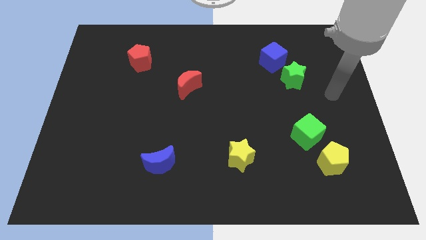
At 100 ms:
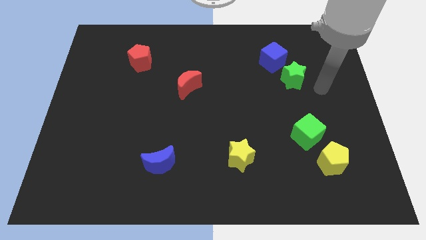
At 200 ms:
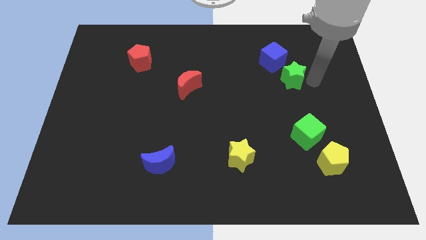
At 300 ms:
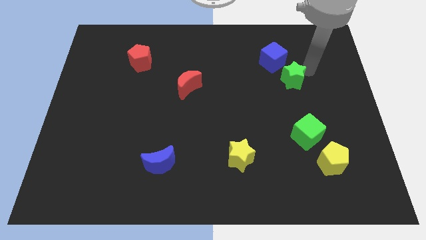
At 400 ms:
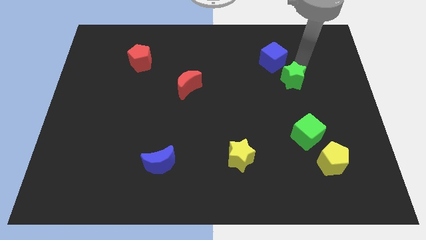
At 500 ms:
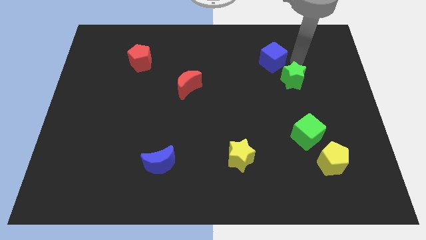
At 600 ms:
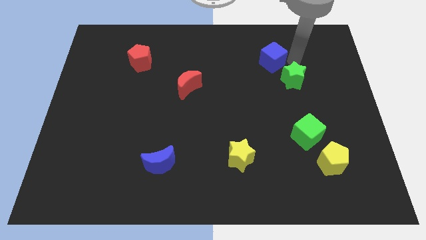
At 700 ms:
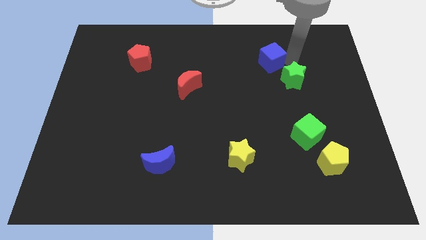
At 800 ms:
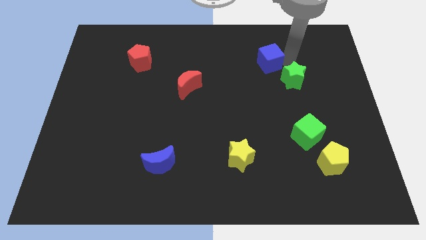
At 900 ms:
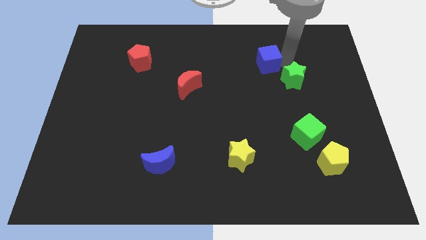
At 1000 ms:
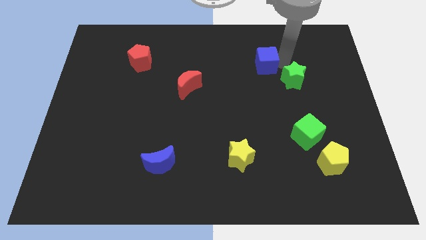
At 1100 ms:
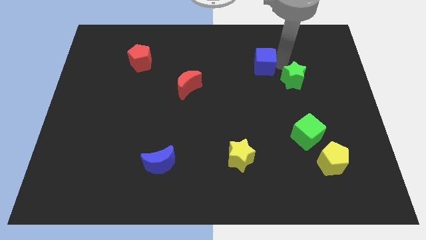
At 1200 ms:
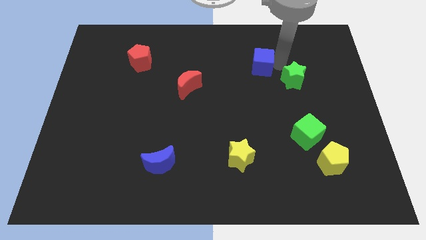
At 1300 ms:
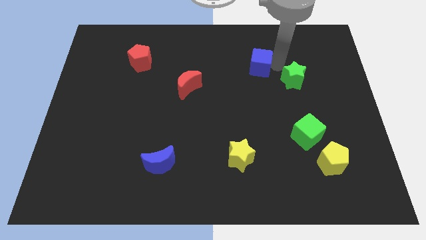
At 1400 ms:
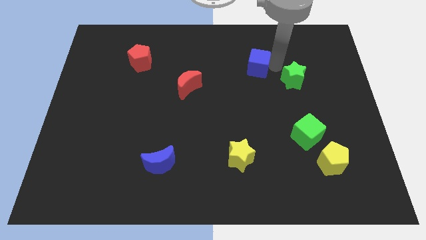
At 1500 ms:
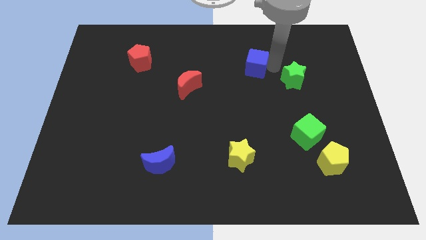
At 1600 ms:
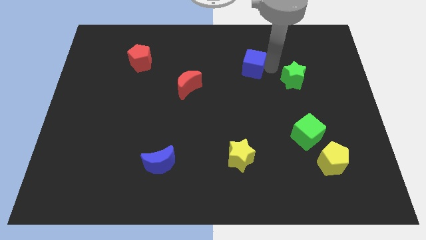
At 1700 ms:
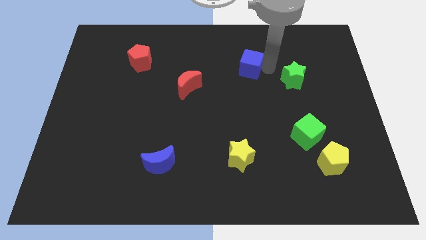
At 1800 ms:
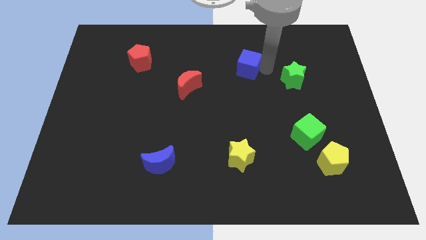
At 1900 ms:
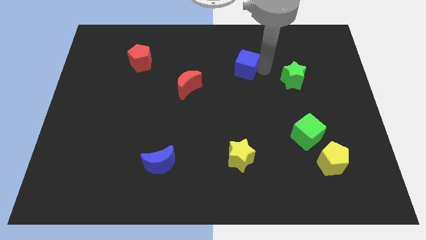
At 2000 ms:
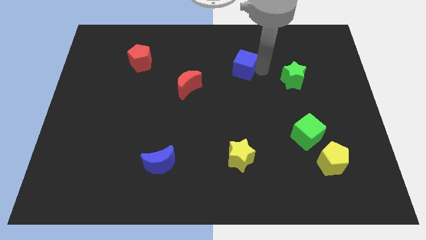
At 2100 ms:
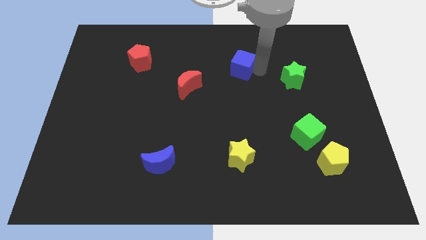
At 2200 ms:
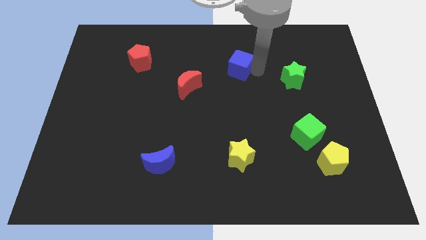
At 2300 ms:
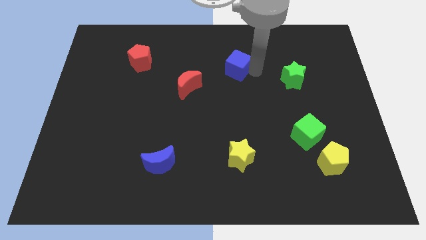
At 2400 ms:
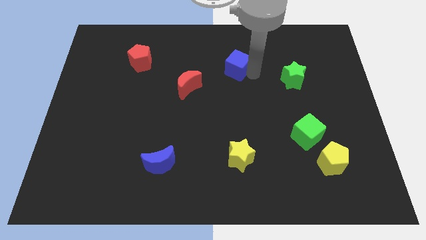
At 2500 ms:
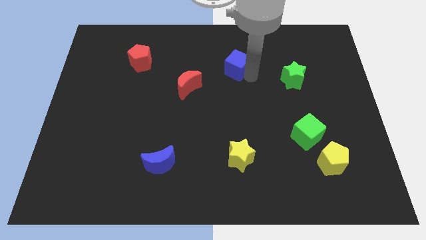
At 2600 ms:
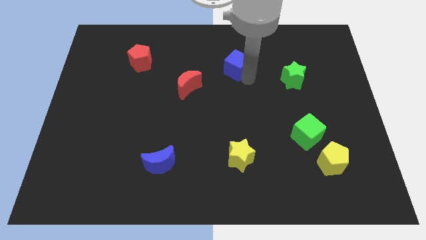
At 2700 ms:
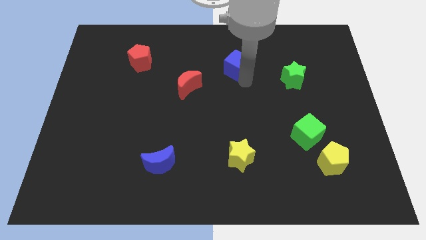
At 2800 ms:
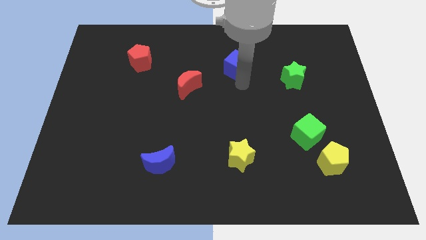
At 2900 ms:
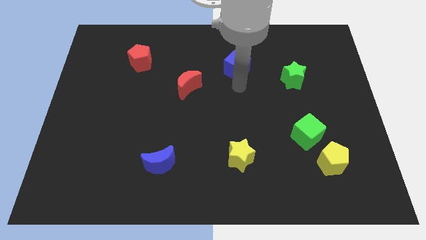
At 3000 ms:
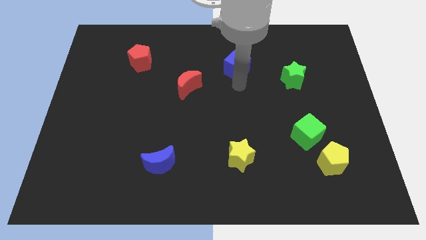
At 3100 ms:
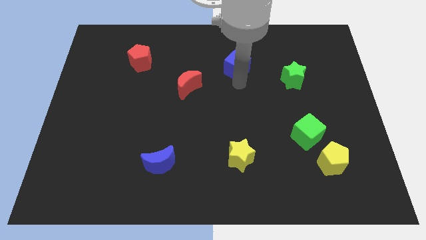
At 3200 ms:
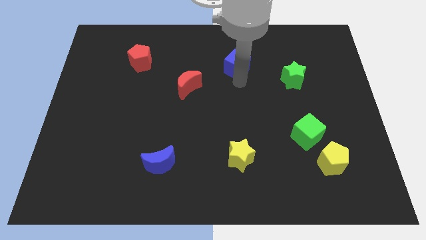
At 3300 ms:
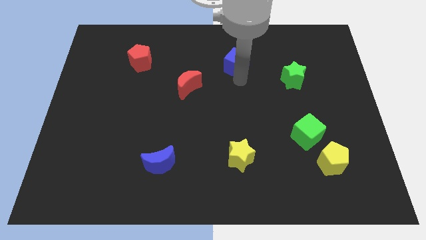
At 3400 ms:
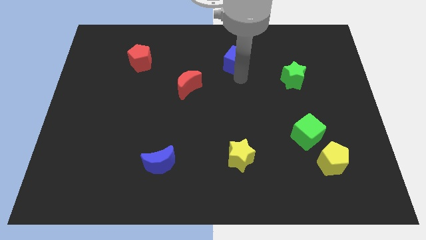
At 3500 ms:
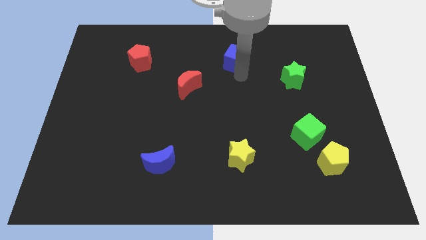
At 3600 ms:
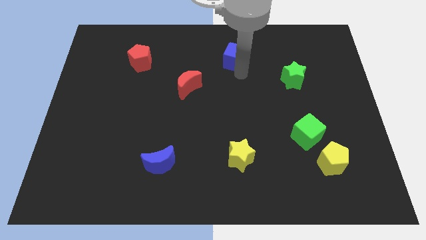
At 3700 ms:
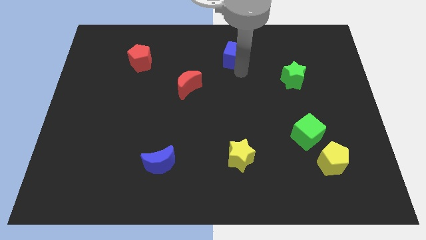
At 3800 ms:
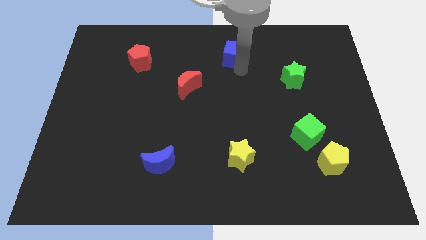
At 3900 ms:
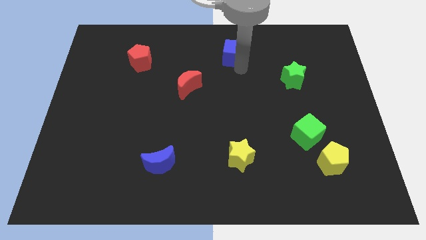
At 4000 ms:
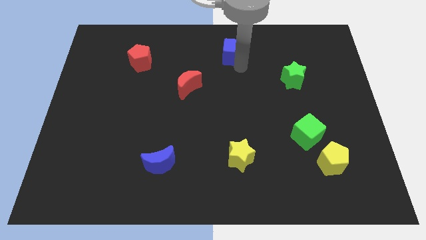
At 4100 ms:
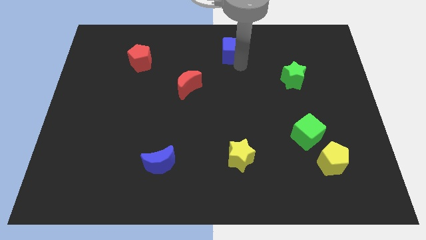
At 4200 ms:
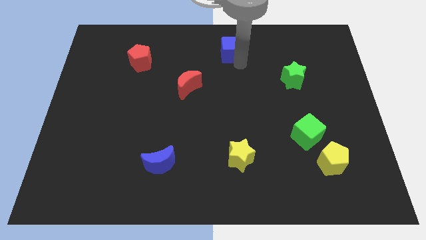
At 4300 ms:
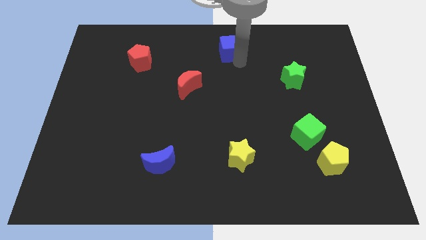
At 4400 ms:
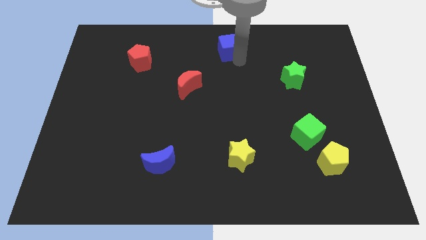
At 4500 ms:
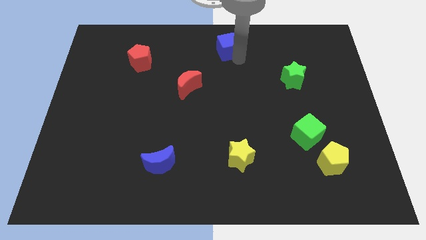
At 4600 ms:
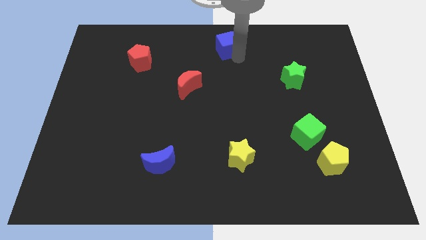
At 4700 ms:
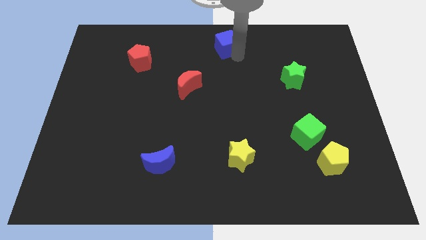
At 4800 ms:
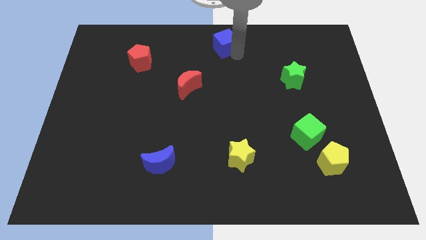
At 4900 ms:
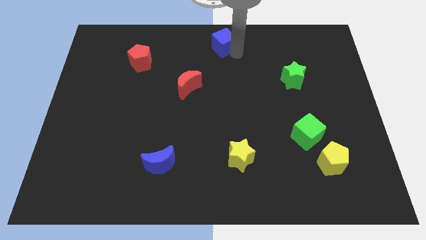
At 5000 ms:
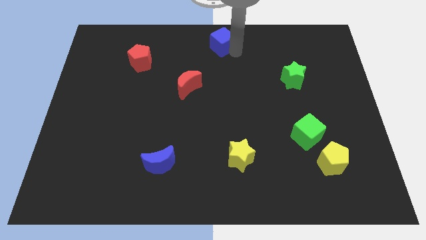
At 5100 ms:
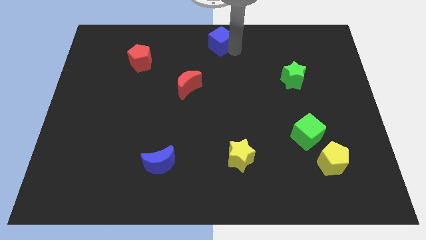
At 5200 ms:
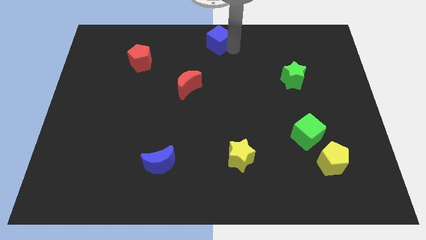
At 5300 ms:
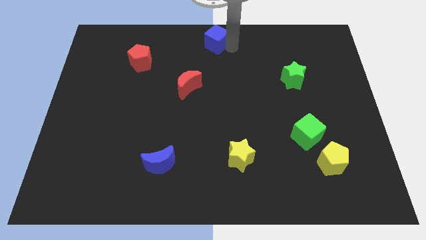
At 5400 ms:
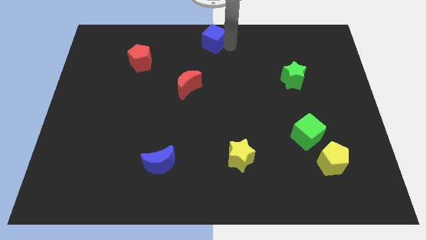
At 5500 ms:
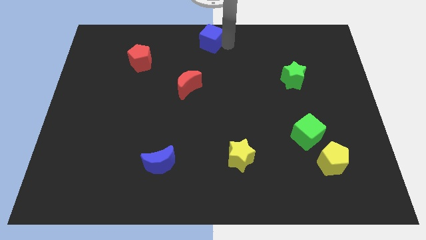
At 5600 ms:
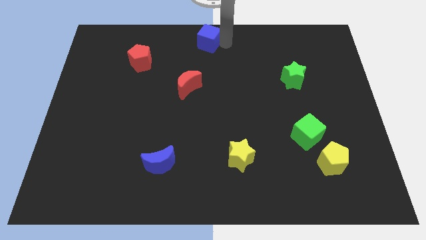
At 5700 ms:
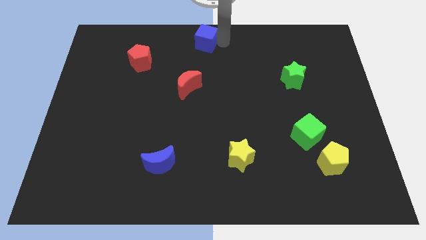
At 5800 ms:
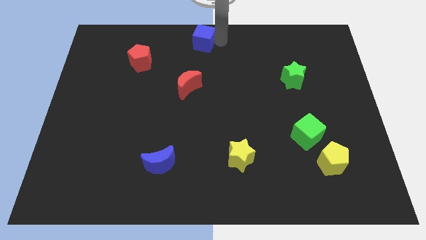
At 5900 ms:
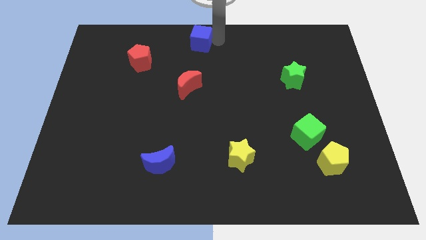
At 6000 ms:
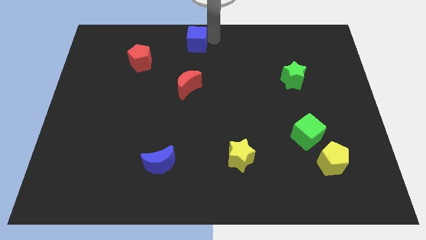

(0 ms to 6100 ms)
put the blue cube above the red moon

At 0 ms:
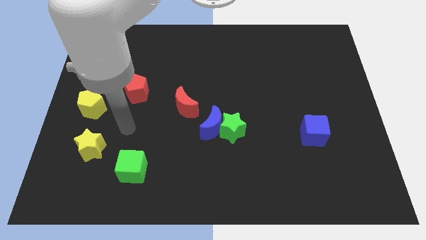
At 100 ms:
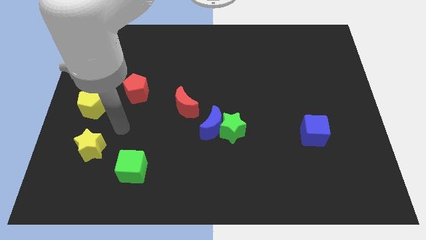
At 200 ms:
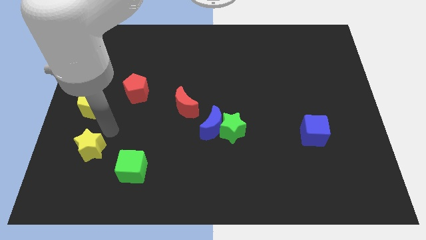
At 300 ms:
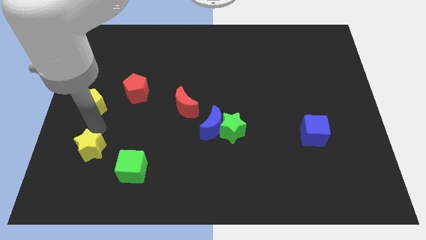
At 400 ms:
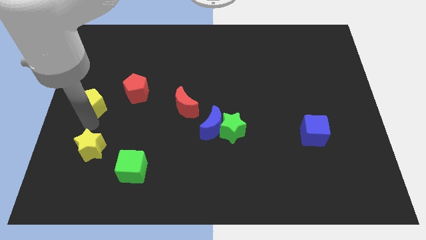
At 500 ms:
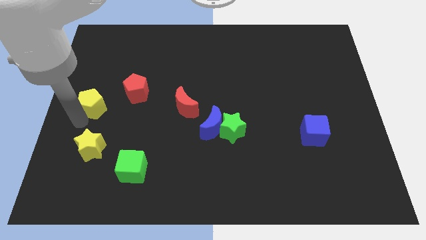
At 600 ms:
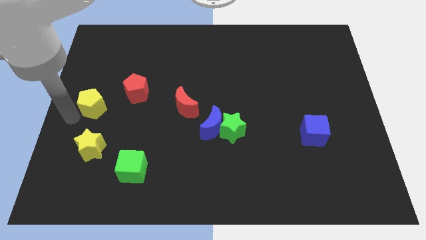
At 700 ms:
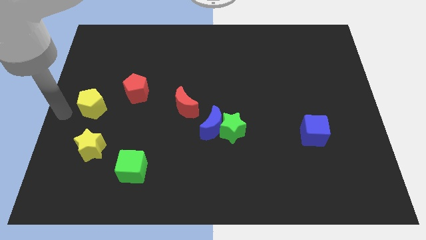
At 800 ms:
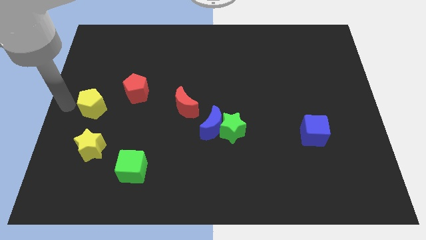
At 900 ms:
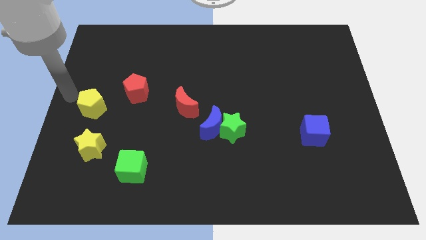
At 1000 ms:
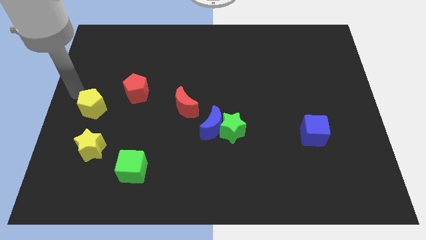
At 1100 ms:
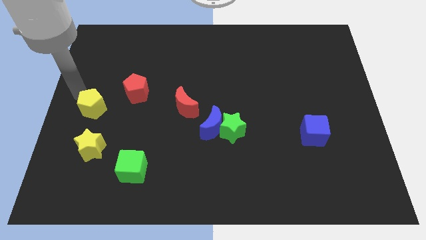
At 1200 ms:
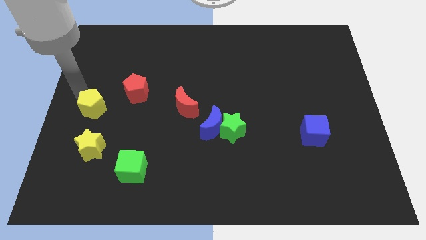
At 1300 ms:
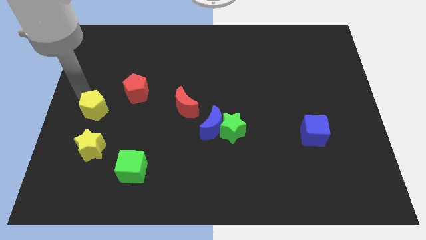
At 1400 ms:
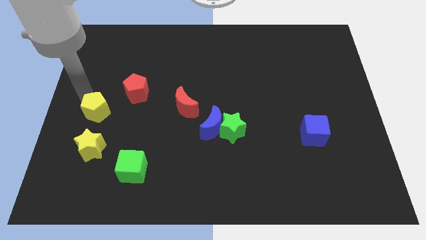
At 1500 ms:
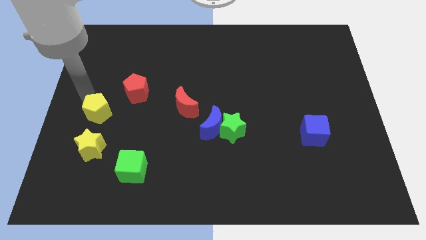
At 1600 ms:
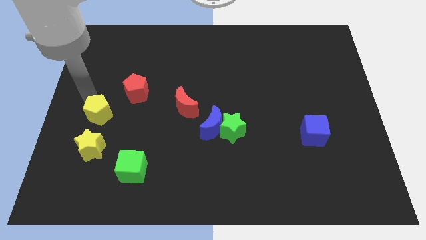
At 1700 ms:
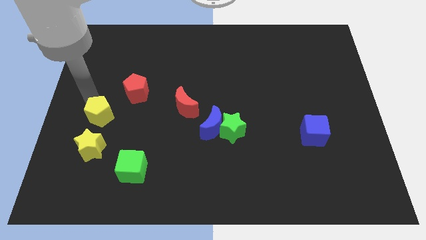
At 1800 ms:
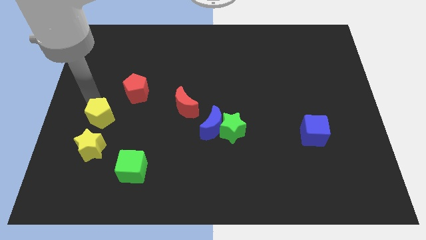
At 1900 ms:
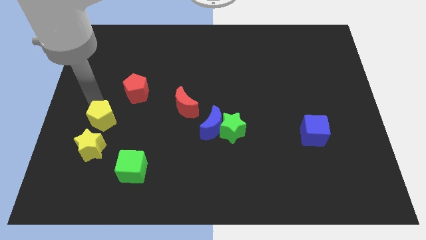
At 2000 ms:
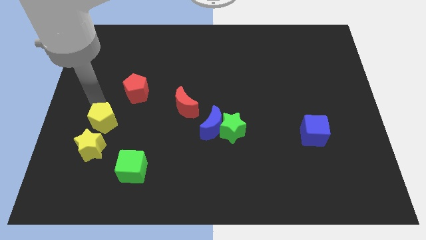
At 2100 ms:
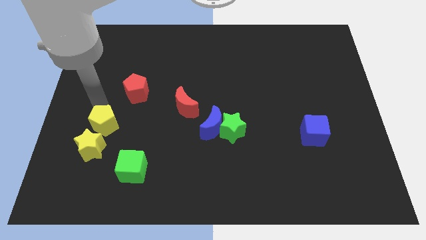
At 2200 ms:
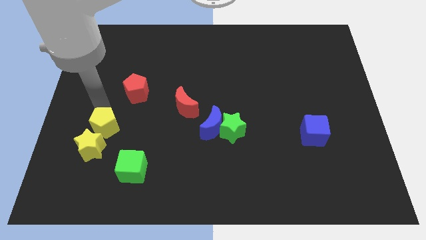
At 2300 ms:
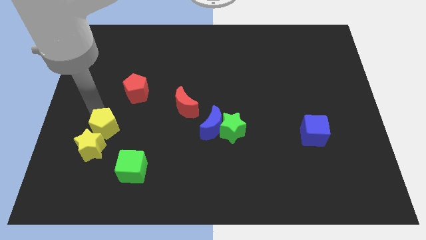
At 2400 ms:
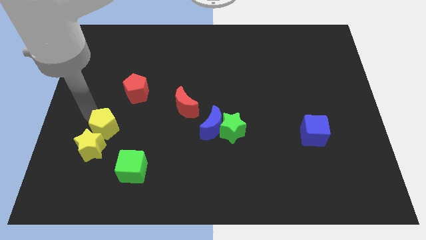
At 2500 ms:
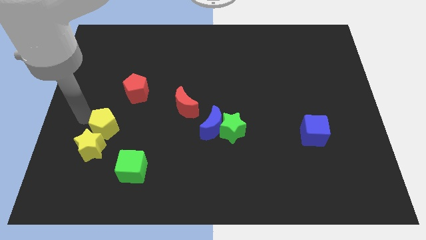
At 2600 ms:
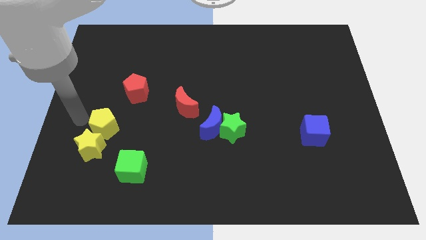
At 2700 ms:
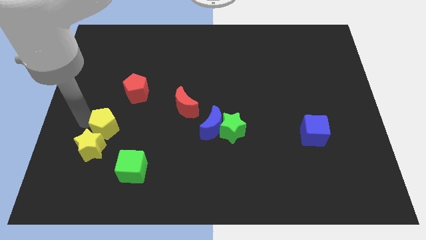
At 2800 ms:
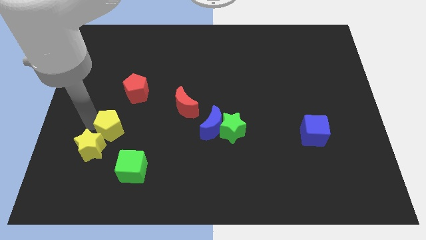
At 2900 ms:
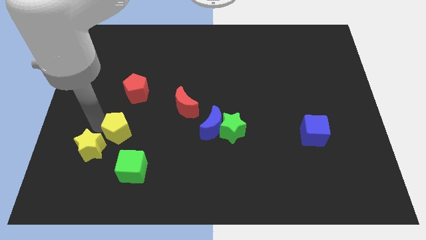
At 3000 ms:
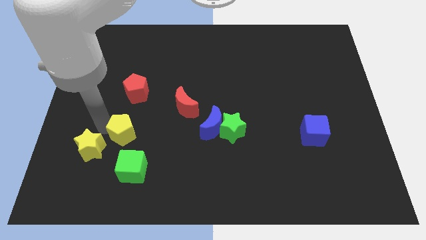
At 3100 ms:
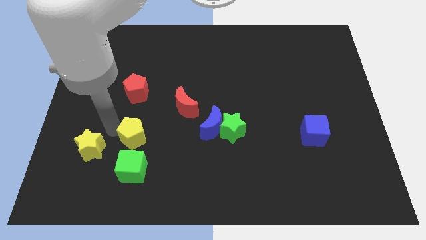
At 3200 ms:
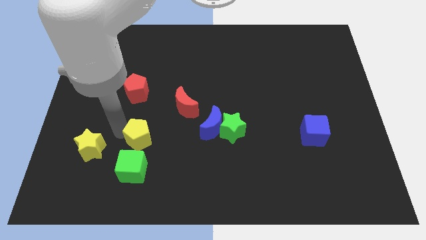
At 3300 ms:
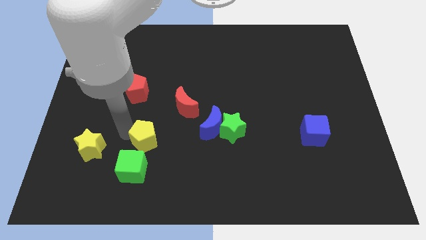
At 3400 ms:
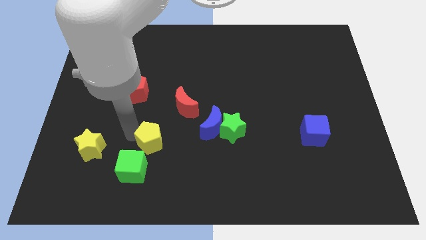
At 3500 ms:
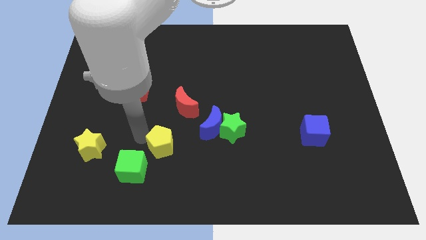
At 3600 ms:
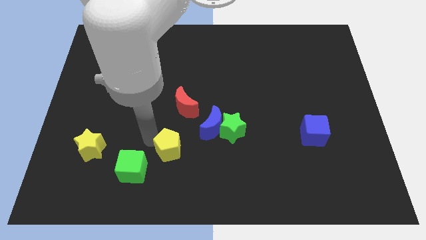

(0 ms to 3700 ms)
move the yellow pentagon to the right of the green cube
